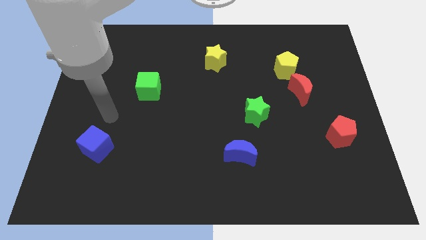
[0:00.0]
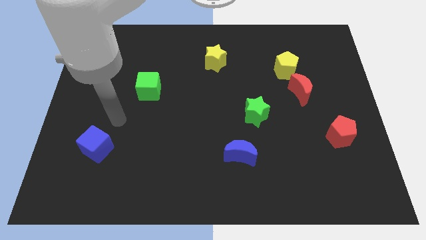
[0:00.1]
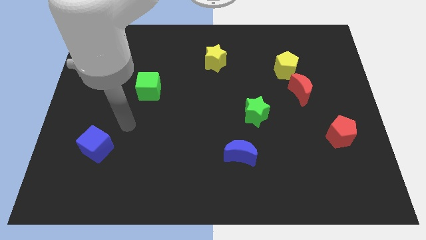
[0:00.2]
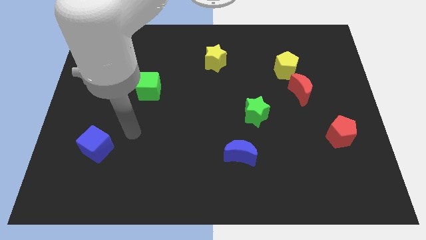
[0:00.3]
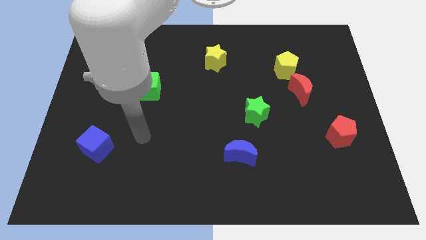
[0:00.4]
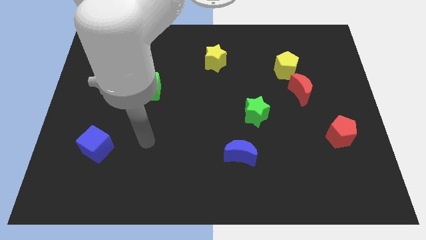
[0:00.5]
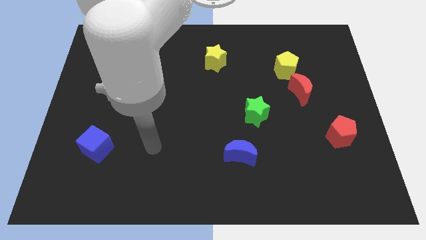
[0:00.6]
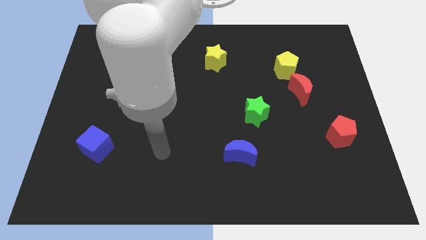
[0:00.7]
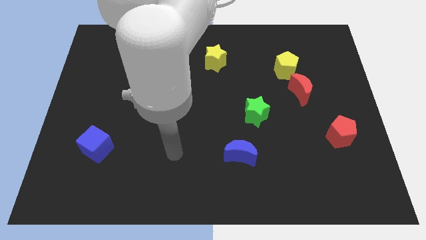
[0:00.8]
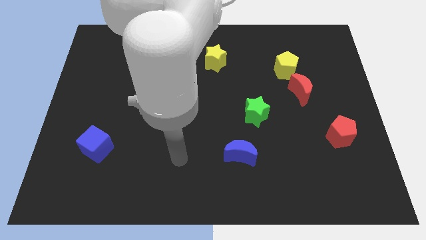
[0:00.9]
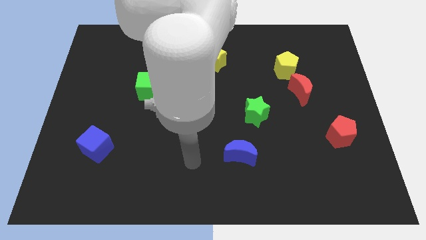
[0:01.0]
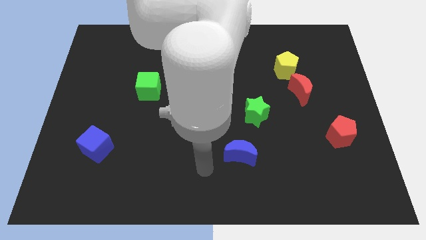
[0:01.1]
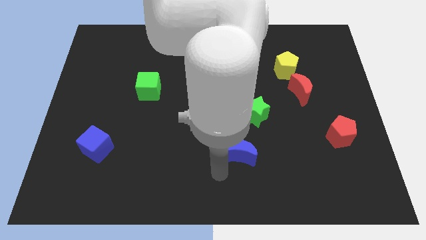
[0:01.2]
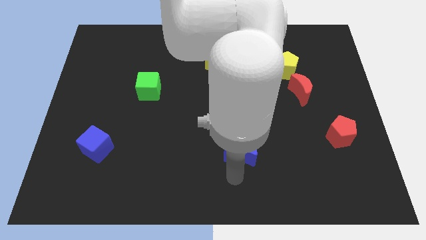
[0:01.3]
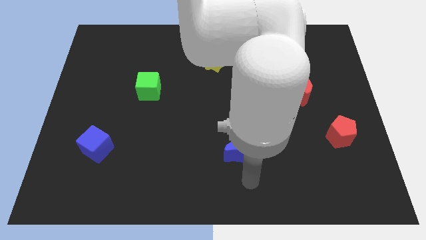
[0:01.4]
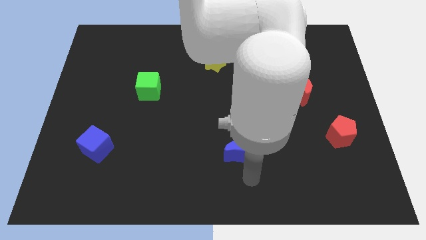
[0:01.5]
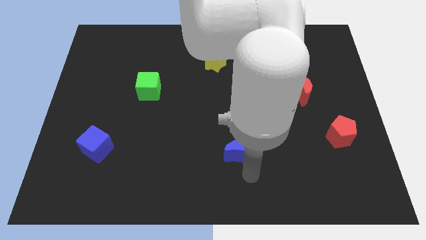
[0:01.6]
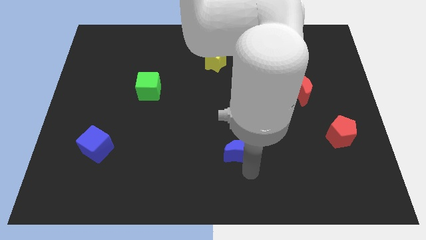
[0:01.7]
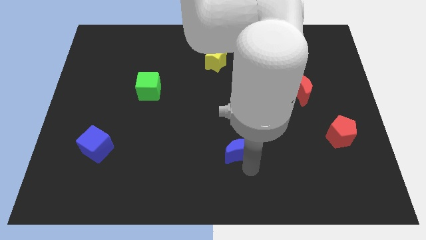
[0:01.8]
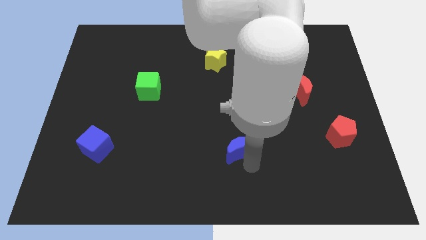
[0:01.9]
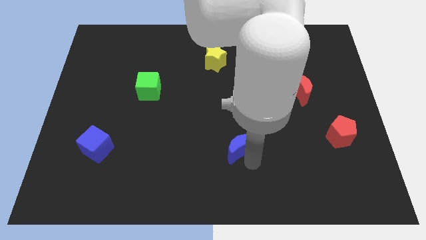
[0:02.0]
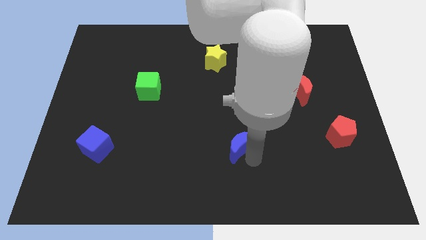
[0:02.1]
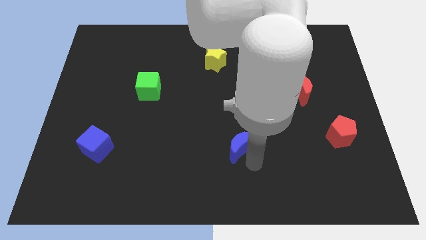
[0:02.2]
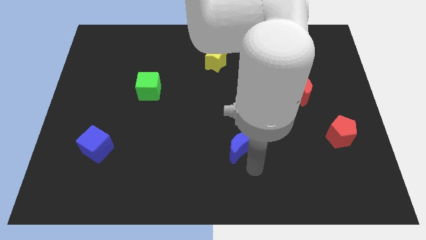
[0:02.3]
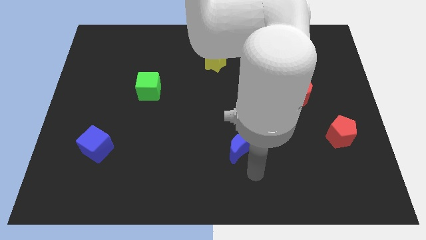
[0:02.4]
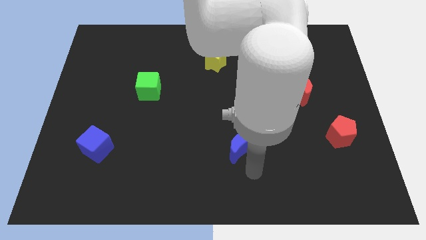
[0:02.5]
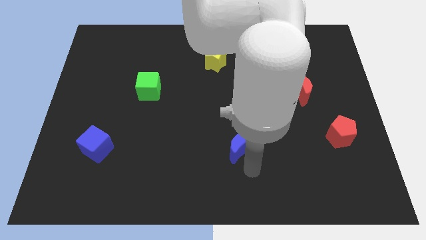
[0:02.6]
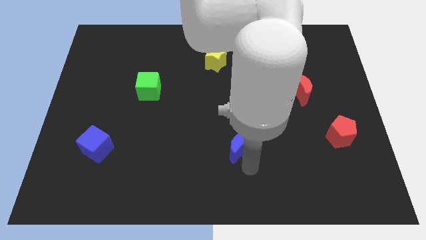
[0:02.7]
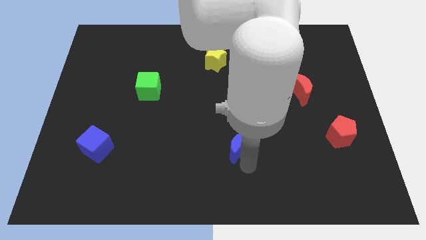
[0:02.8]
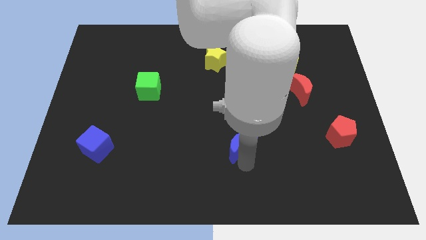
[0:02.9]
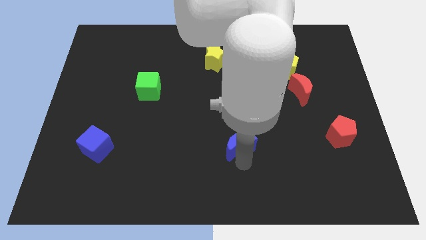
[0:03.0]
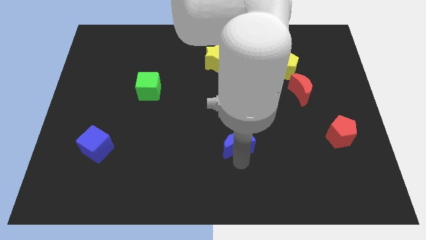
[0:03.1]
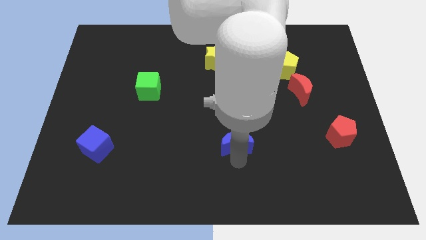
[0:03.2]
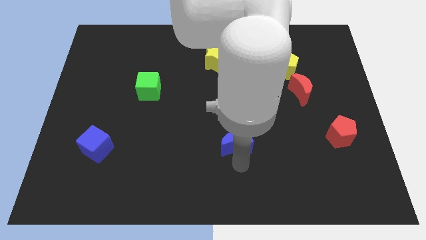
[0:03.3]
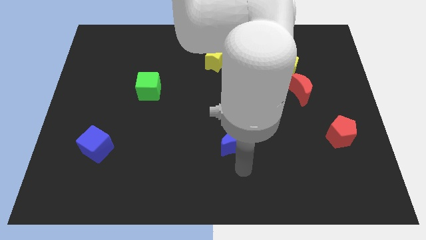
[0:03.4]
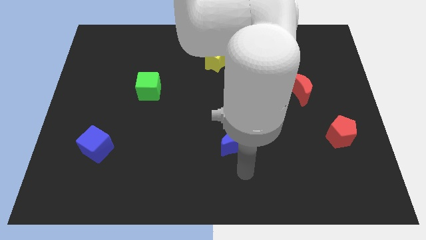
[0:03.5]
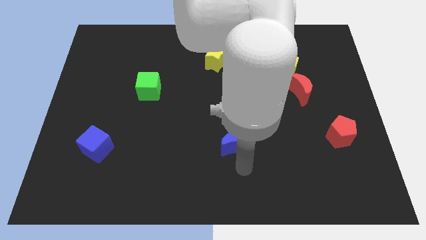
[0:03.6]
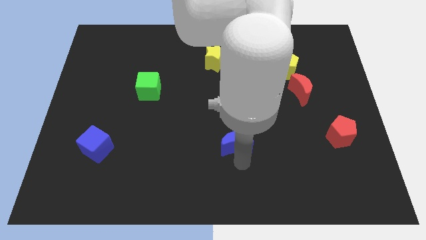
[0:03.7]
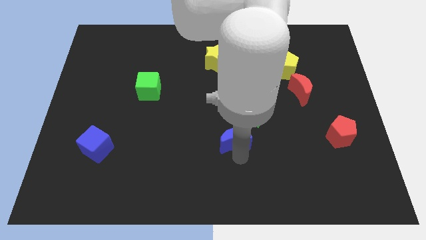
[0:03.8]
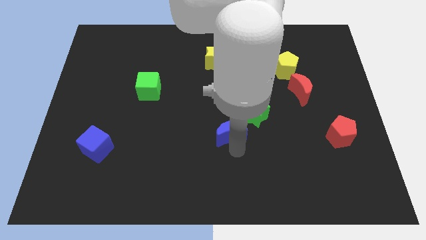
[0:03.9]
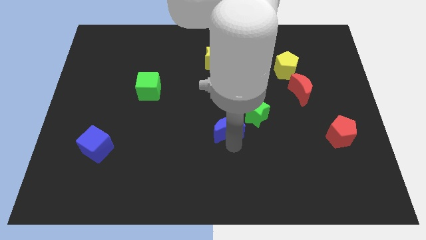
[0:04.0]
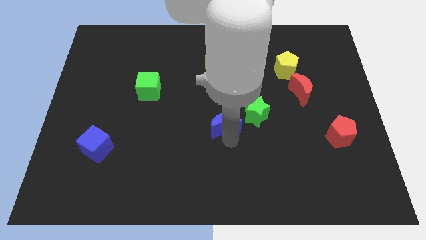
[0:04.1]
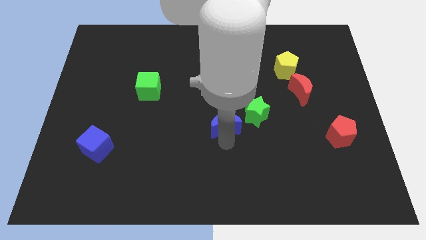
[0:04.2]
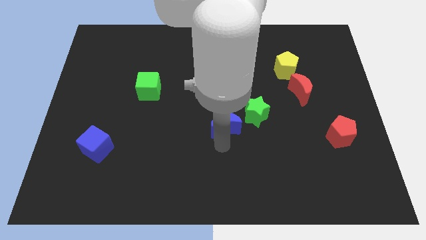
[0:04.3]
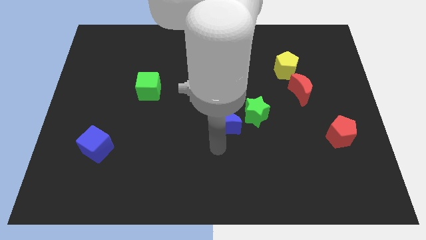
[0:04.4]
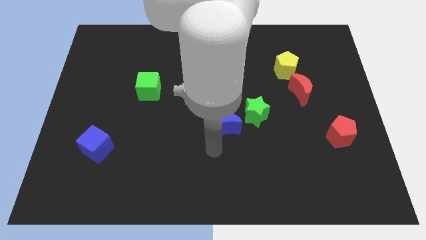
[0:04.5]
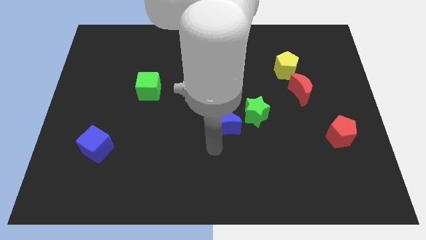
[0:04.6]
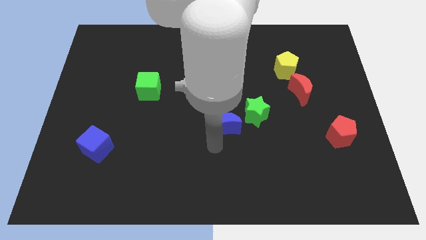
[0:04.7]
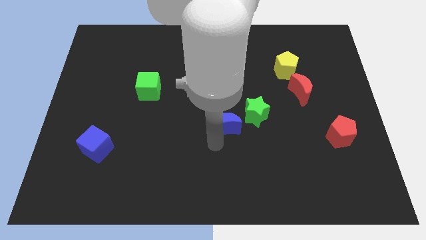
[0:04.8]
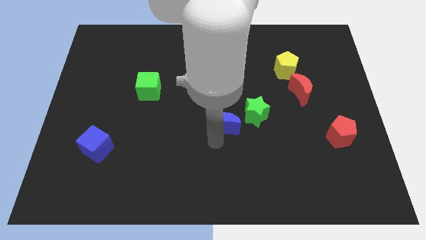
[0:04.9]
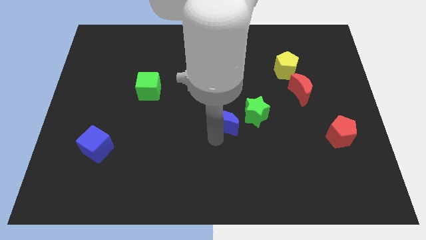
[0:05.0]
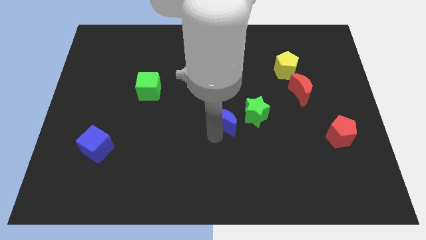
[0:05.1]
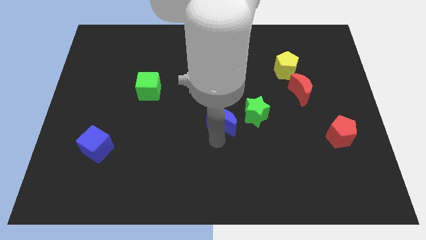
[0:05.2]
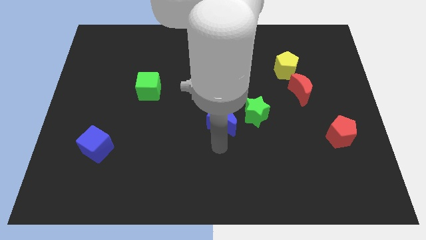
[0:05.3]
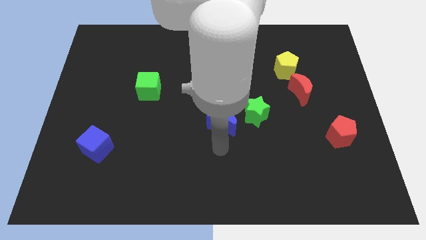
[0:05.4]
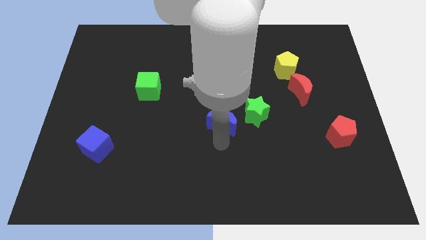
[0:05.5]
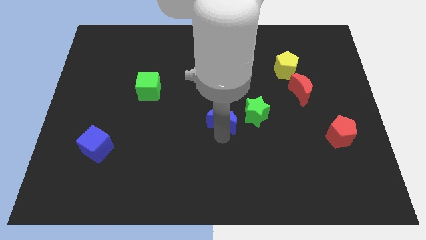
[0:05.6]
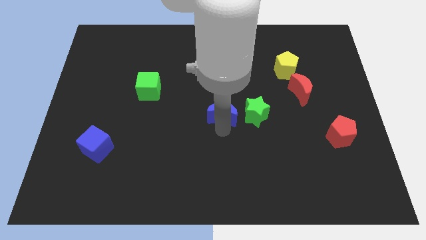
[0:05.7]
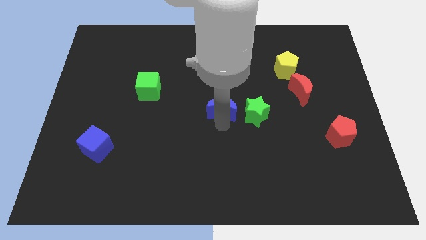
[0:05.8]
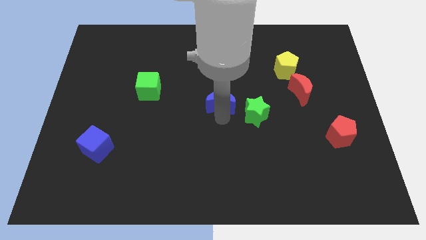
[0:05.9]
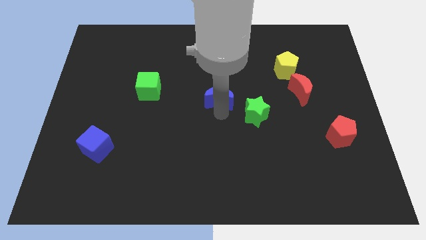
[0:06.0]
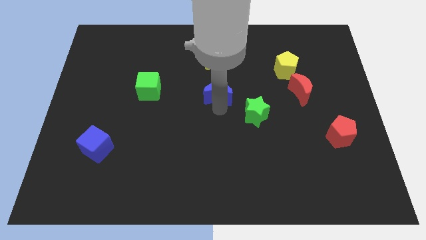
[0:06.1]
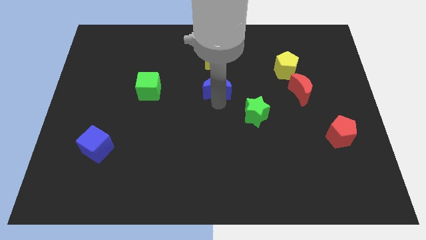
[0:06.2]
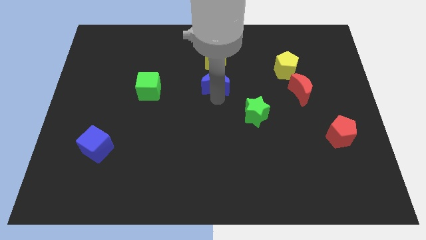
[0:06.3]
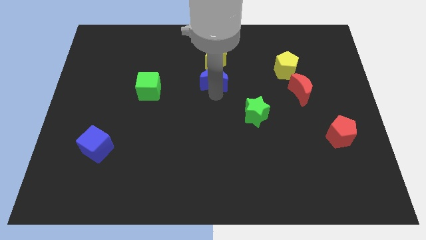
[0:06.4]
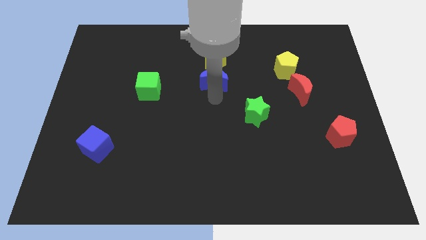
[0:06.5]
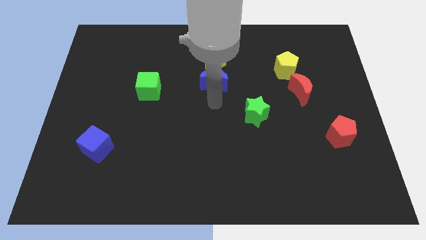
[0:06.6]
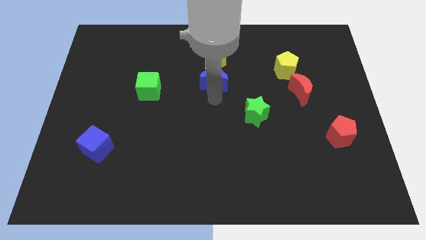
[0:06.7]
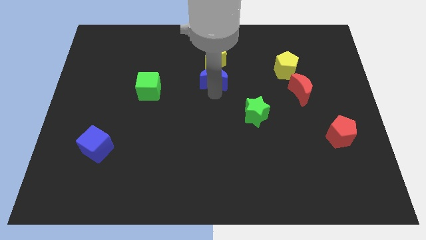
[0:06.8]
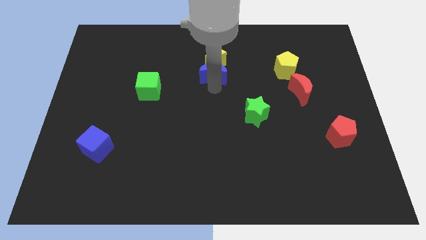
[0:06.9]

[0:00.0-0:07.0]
move the blue moon close to the yellow star

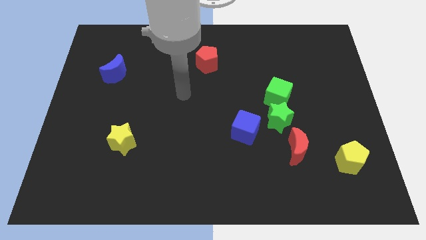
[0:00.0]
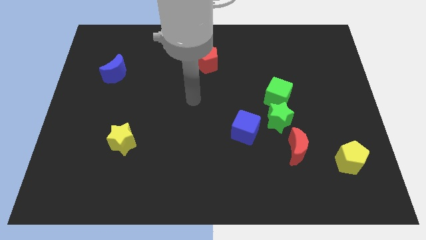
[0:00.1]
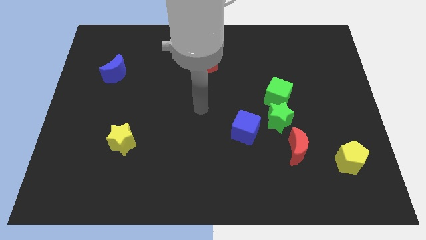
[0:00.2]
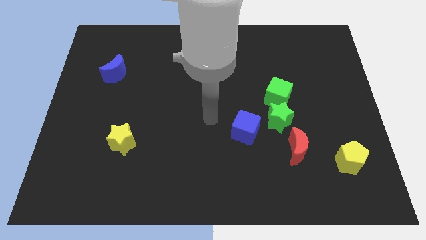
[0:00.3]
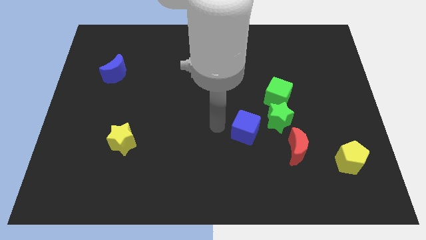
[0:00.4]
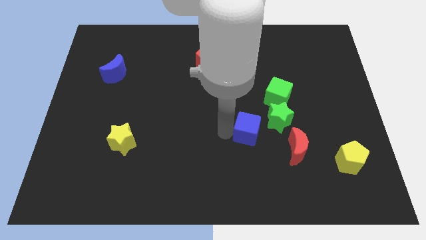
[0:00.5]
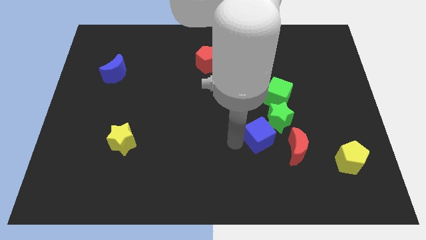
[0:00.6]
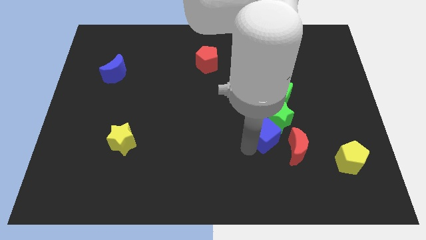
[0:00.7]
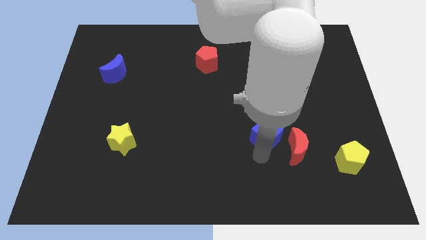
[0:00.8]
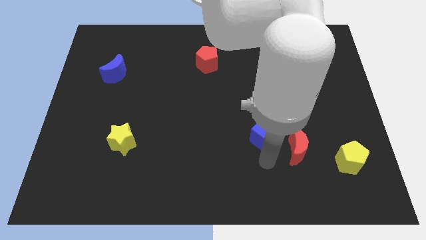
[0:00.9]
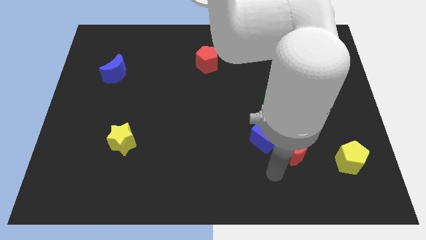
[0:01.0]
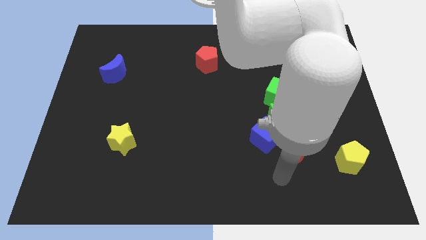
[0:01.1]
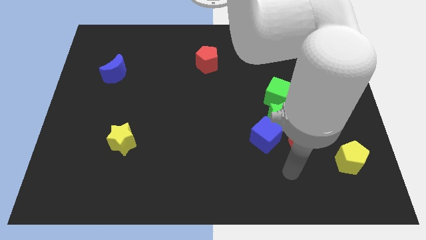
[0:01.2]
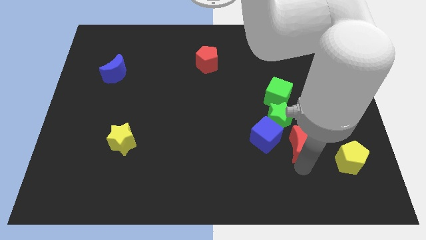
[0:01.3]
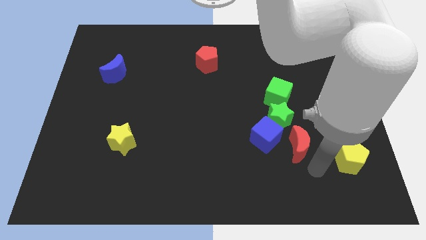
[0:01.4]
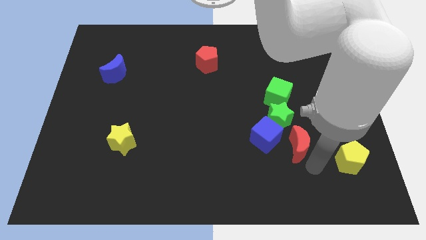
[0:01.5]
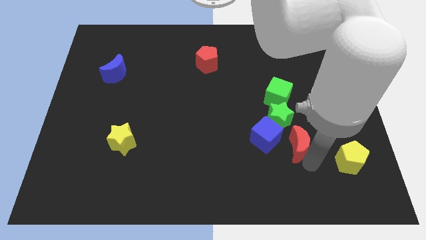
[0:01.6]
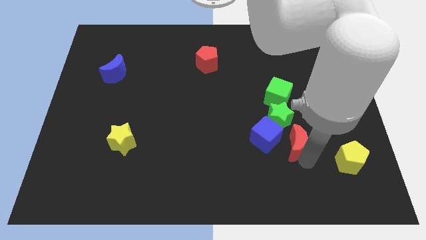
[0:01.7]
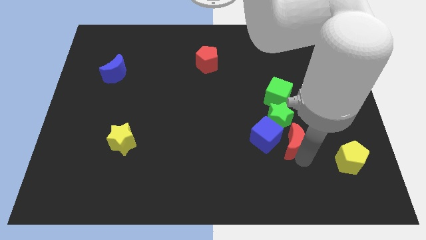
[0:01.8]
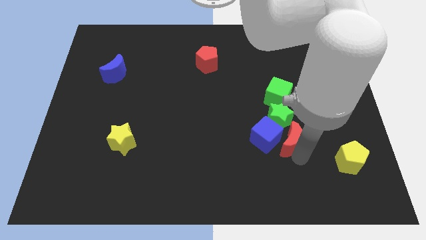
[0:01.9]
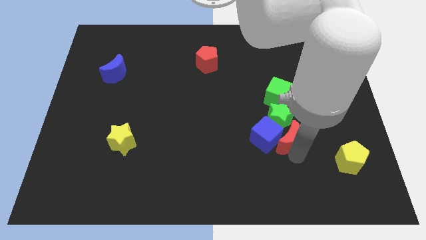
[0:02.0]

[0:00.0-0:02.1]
slide the red moon next to the green star
